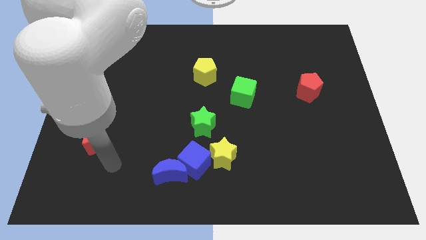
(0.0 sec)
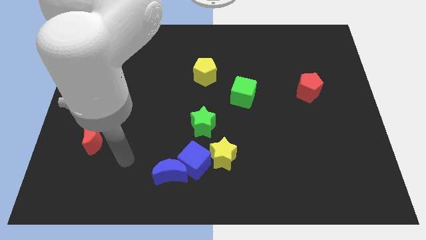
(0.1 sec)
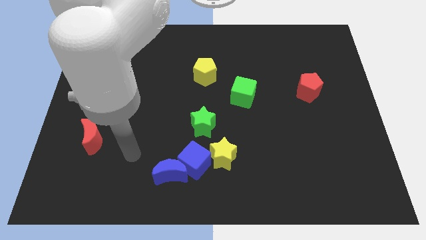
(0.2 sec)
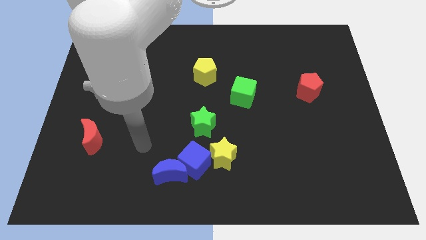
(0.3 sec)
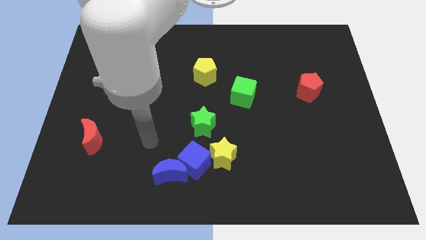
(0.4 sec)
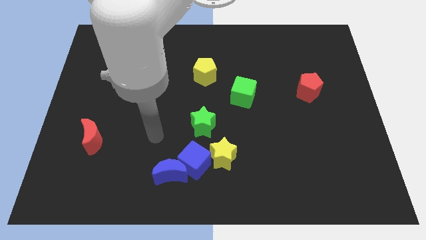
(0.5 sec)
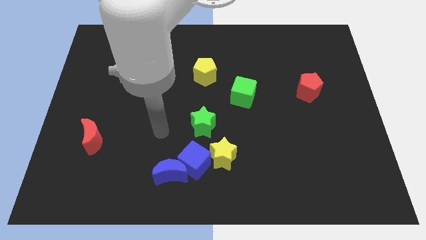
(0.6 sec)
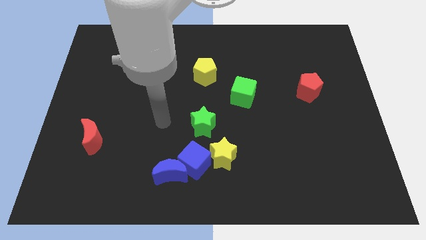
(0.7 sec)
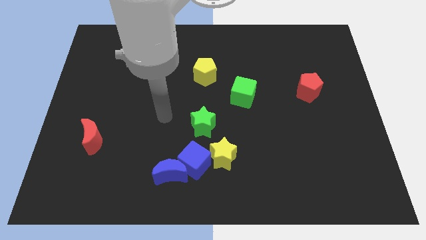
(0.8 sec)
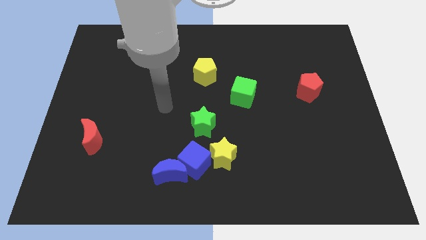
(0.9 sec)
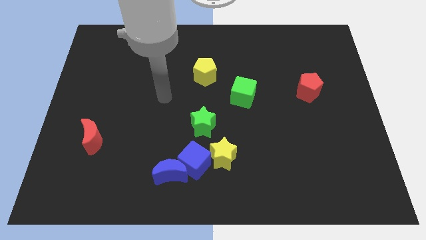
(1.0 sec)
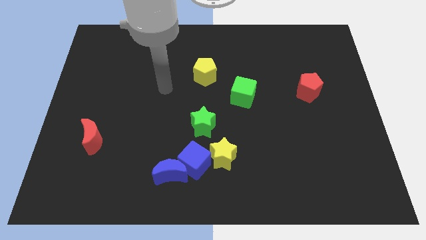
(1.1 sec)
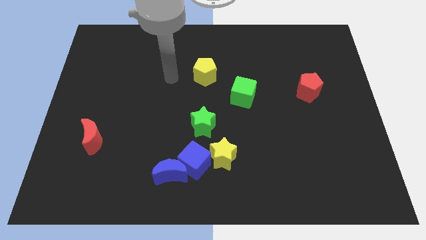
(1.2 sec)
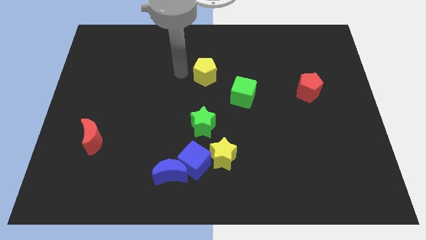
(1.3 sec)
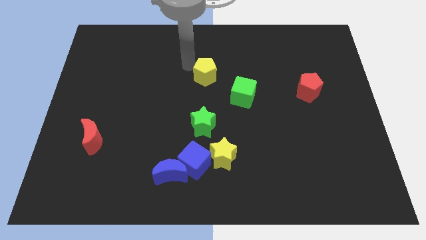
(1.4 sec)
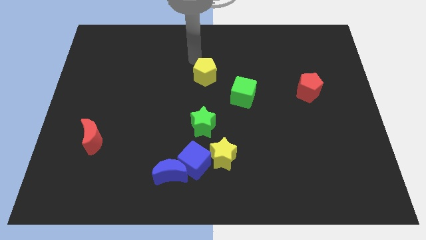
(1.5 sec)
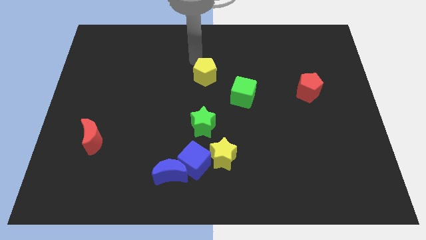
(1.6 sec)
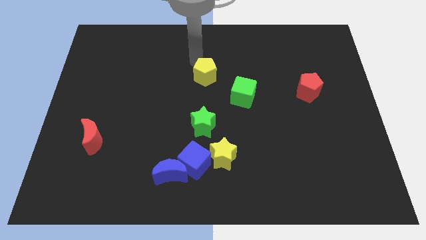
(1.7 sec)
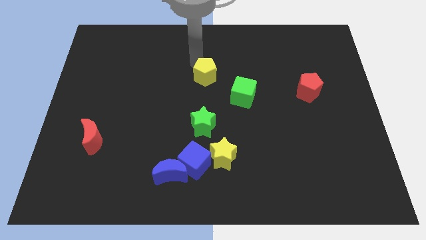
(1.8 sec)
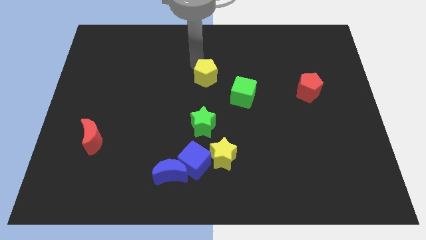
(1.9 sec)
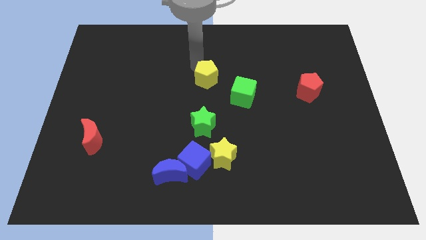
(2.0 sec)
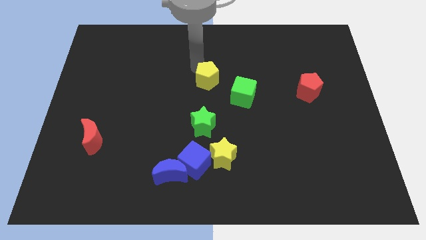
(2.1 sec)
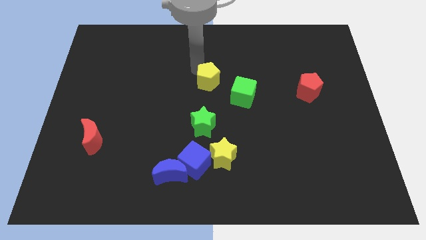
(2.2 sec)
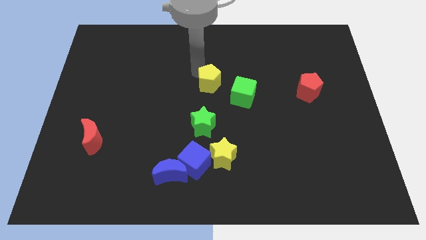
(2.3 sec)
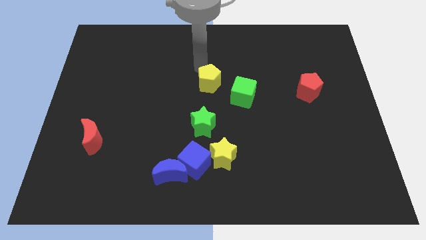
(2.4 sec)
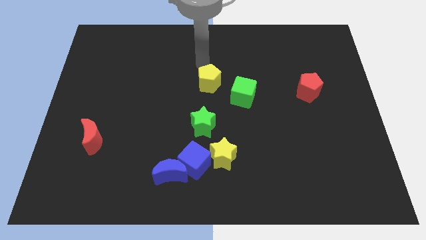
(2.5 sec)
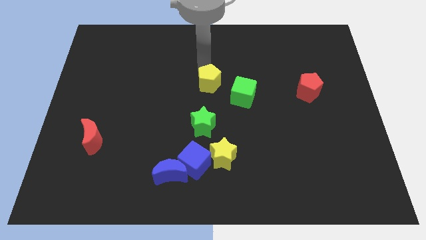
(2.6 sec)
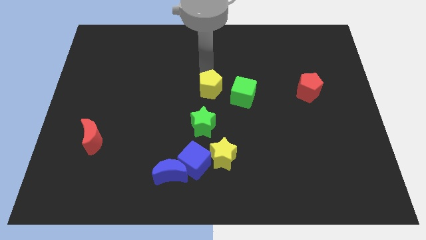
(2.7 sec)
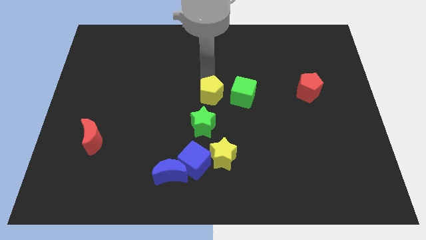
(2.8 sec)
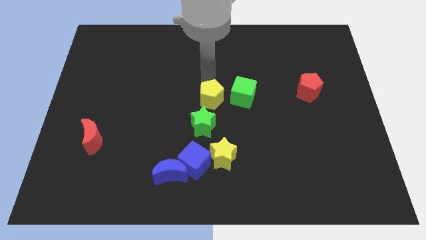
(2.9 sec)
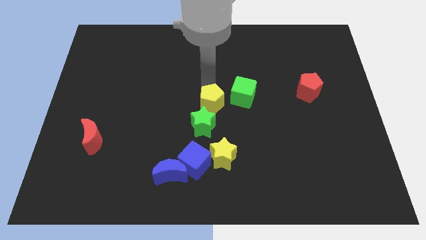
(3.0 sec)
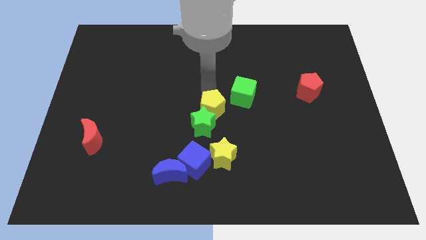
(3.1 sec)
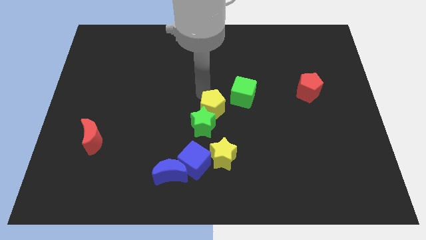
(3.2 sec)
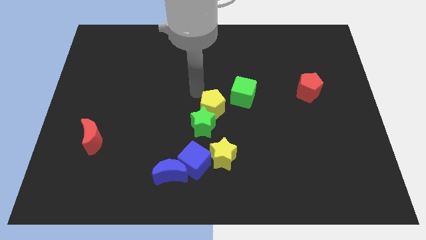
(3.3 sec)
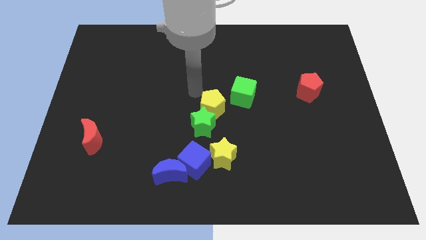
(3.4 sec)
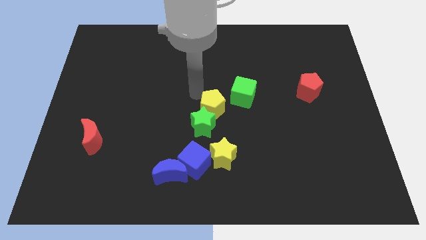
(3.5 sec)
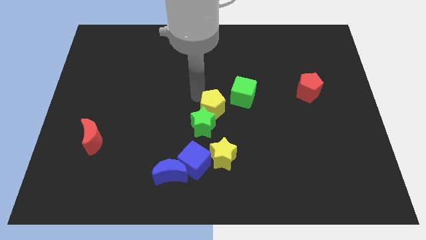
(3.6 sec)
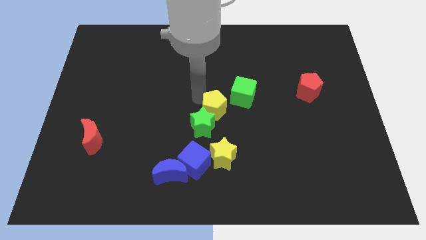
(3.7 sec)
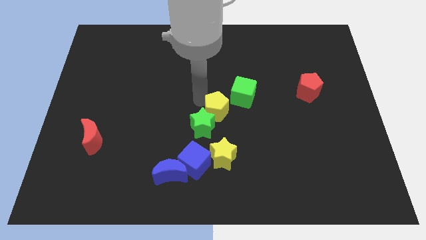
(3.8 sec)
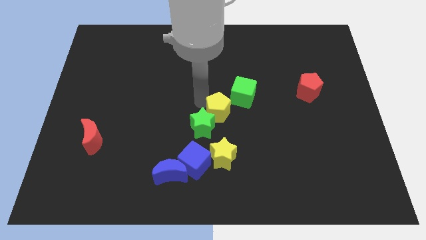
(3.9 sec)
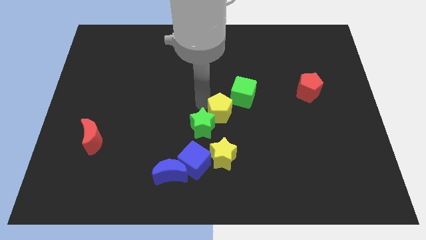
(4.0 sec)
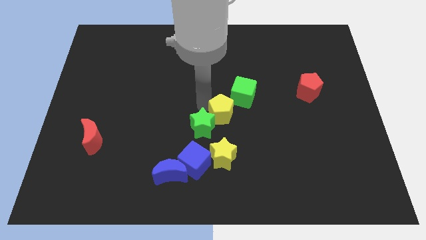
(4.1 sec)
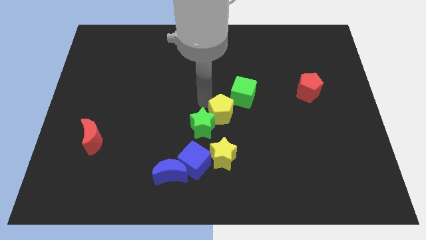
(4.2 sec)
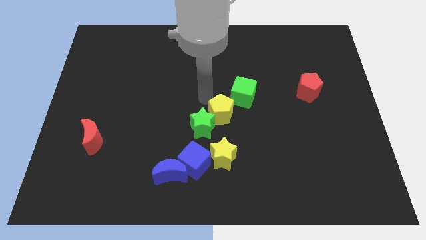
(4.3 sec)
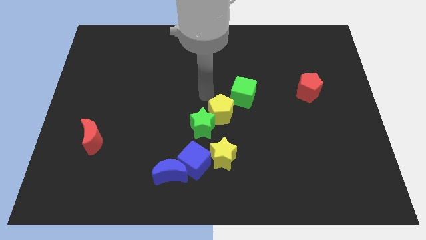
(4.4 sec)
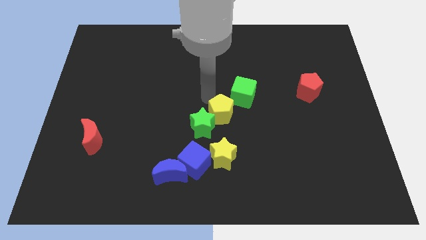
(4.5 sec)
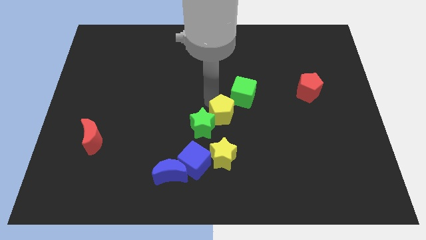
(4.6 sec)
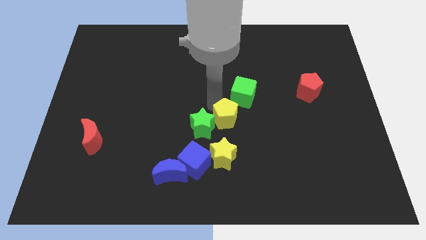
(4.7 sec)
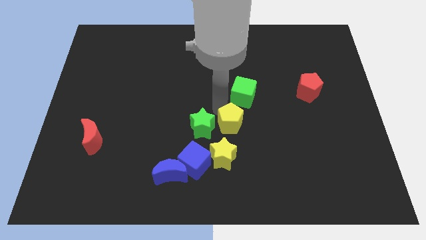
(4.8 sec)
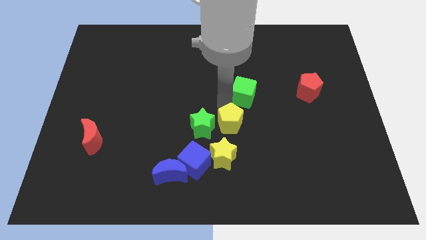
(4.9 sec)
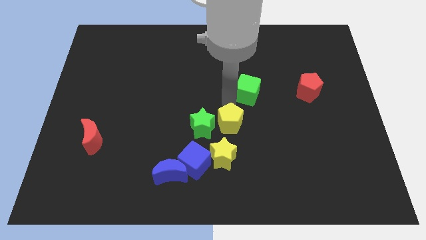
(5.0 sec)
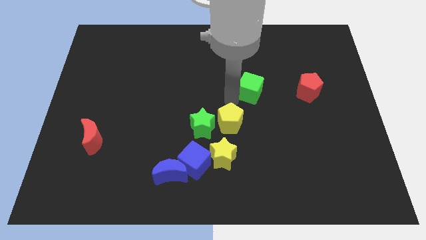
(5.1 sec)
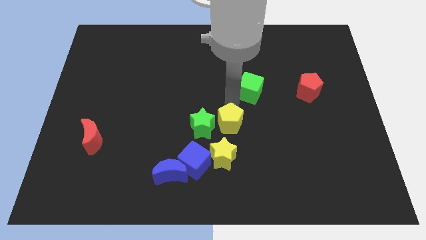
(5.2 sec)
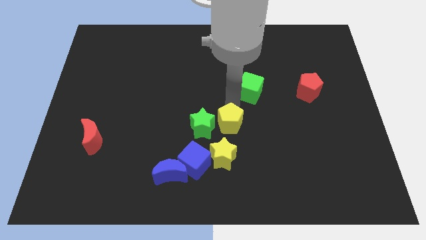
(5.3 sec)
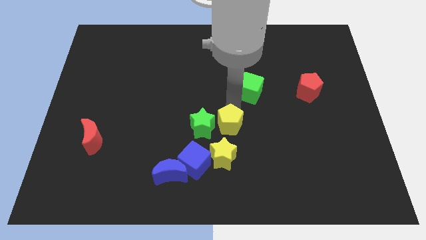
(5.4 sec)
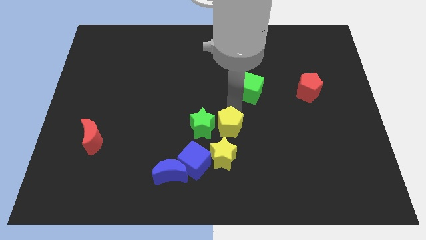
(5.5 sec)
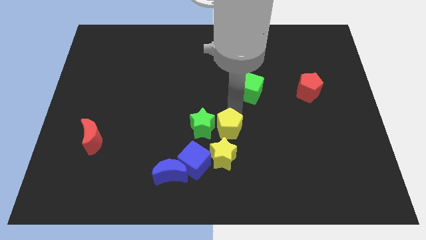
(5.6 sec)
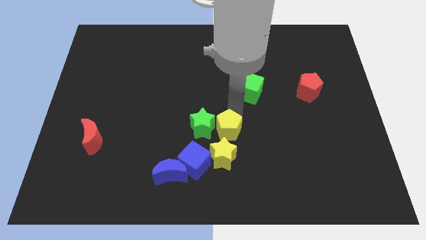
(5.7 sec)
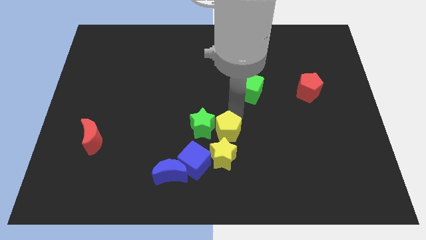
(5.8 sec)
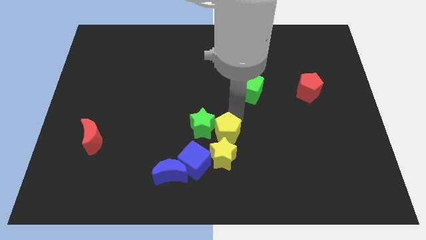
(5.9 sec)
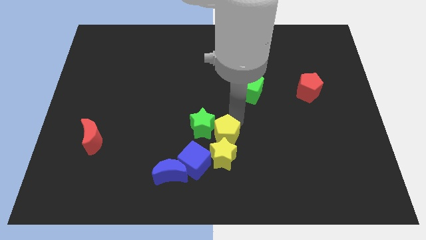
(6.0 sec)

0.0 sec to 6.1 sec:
put the yellow pentagon next to the yellow star

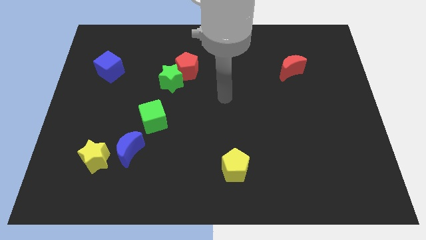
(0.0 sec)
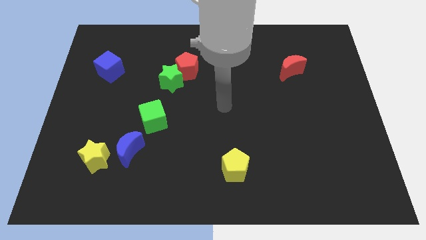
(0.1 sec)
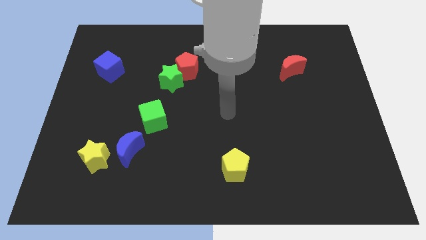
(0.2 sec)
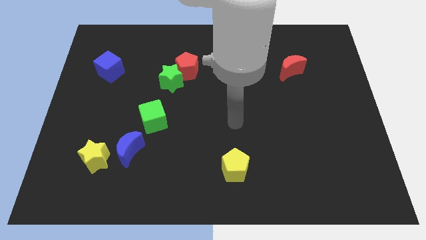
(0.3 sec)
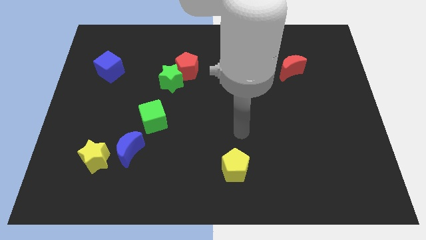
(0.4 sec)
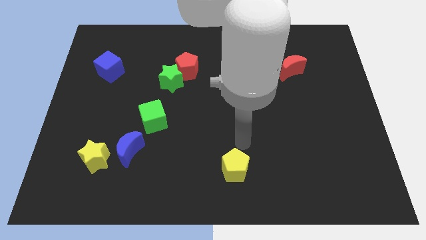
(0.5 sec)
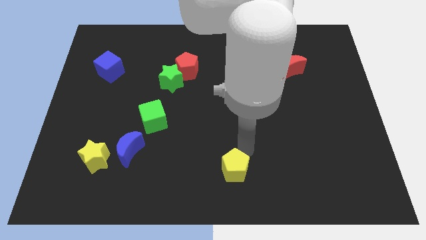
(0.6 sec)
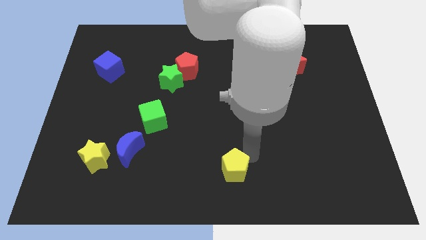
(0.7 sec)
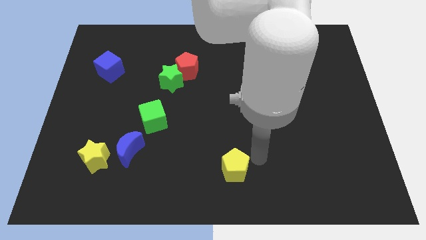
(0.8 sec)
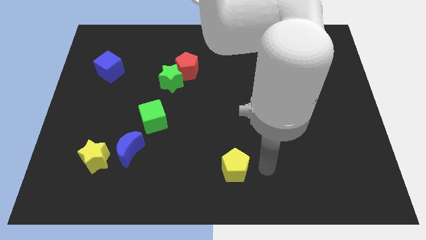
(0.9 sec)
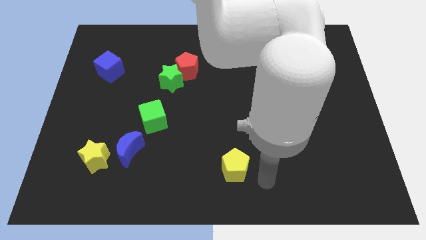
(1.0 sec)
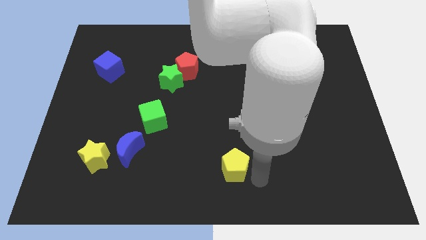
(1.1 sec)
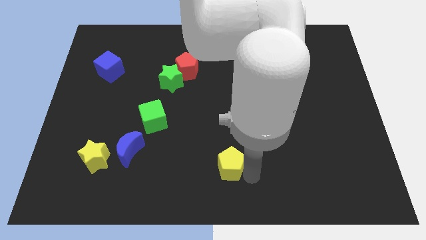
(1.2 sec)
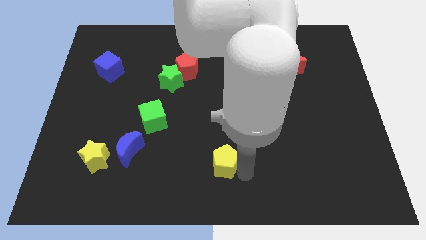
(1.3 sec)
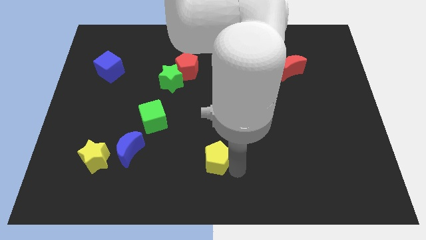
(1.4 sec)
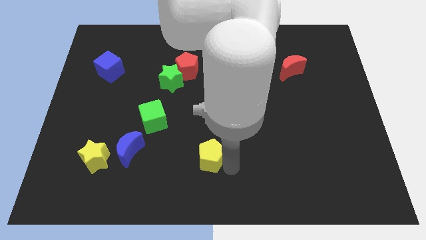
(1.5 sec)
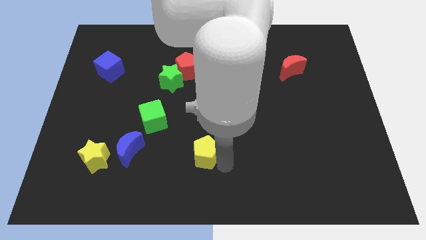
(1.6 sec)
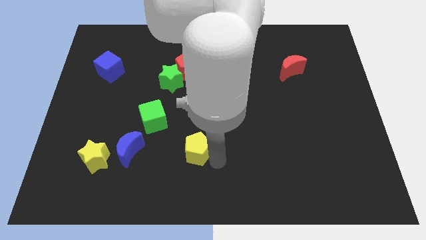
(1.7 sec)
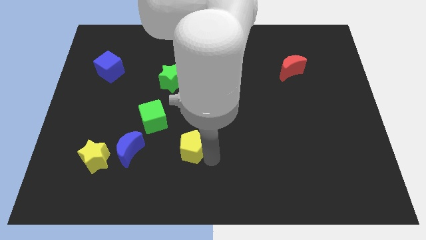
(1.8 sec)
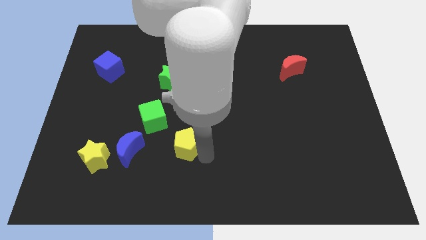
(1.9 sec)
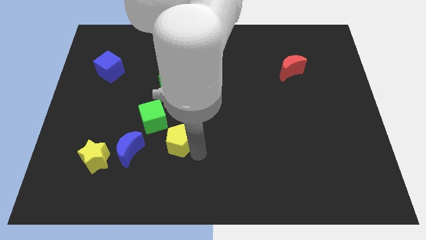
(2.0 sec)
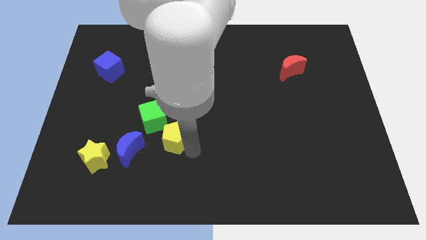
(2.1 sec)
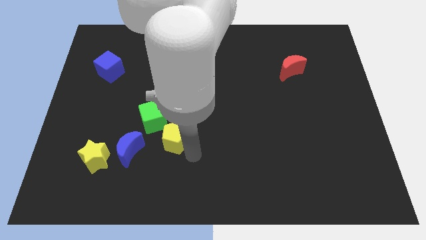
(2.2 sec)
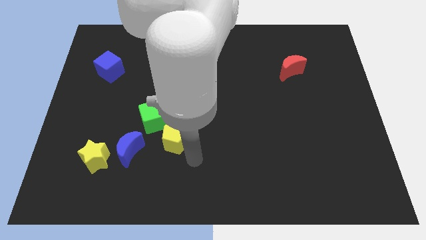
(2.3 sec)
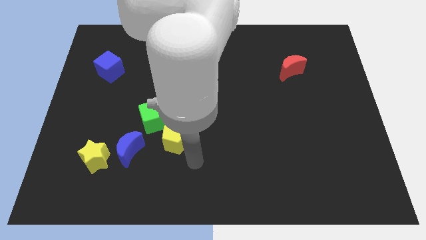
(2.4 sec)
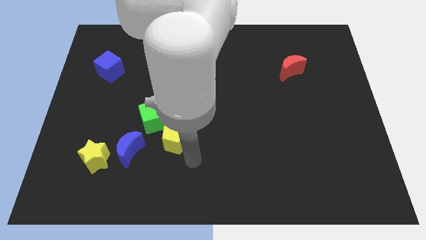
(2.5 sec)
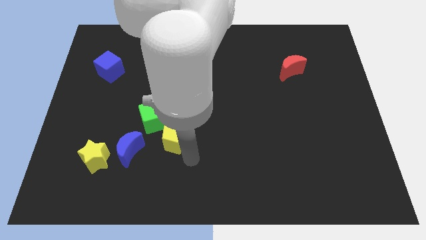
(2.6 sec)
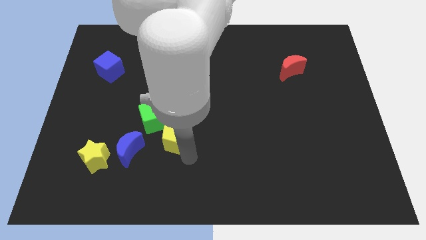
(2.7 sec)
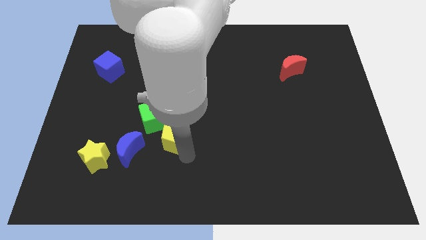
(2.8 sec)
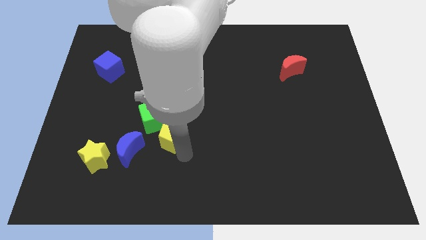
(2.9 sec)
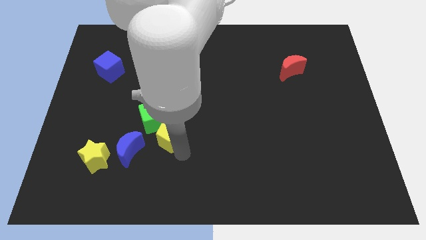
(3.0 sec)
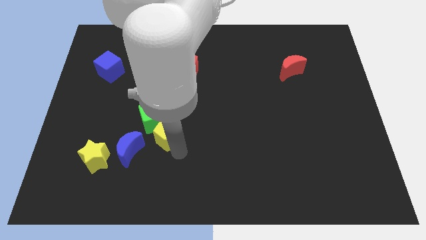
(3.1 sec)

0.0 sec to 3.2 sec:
put the yellow pentagon towards the green cube
